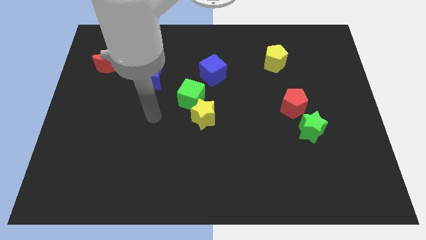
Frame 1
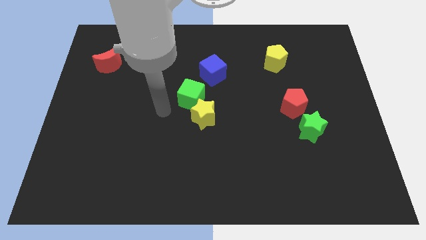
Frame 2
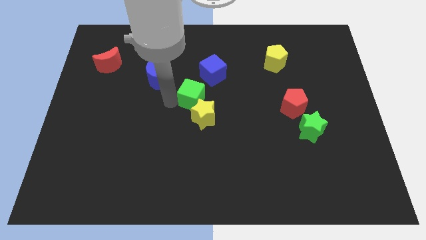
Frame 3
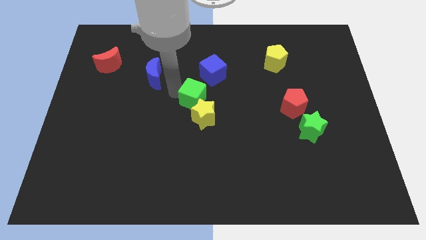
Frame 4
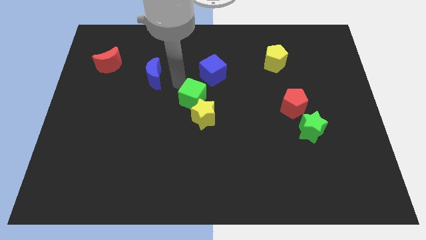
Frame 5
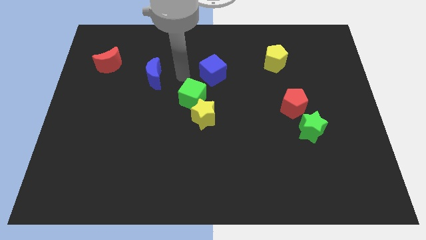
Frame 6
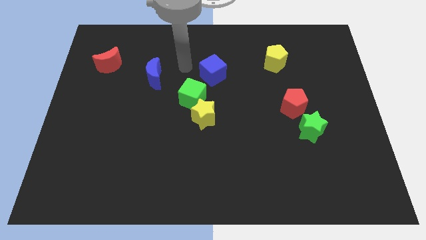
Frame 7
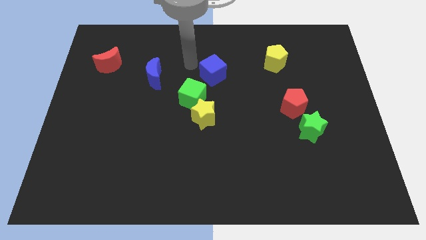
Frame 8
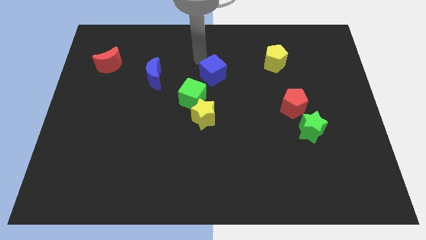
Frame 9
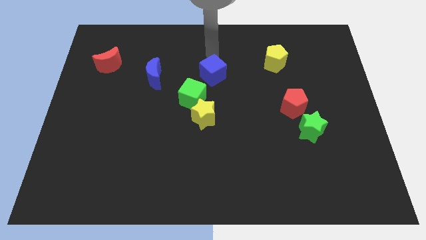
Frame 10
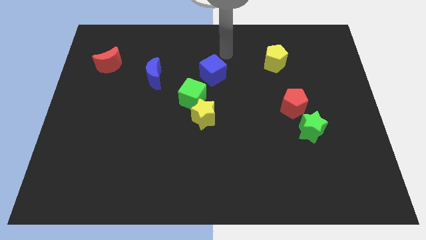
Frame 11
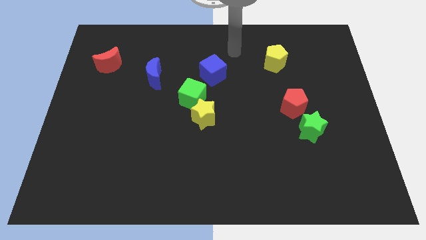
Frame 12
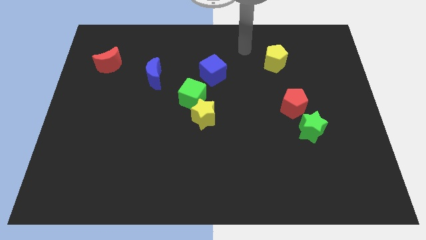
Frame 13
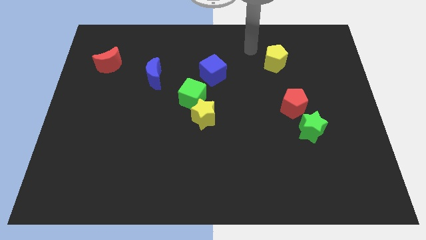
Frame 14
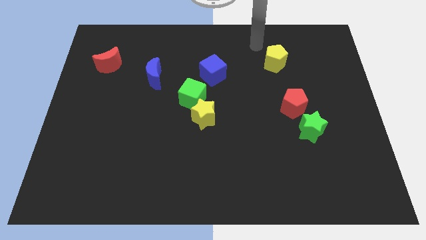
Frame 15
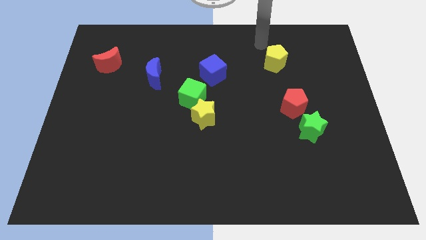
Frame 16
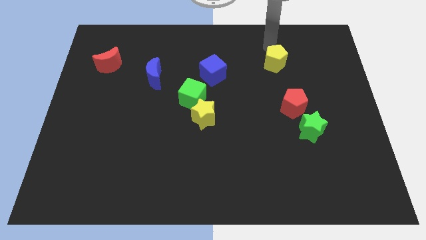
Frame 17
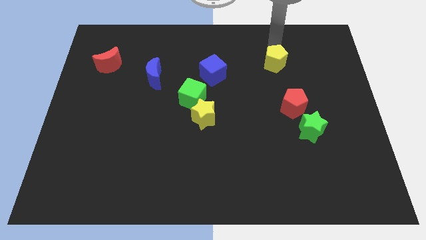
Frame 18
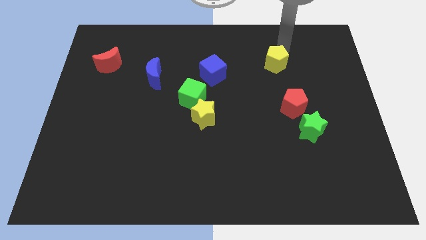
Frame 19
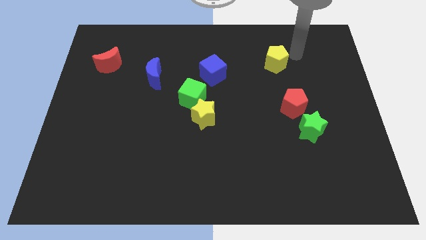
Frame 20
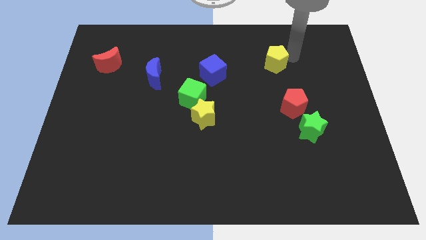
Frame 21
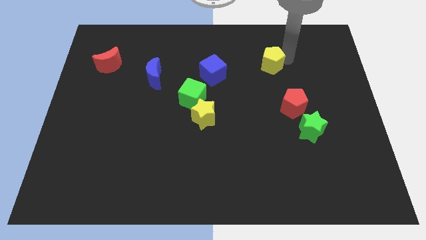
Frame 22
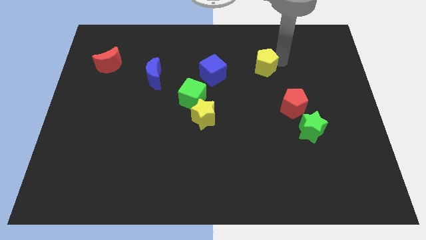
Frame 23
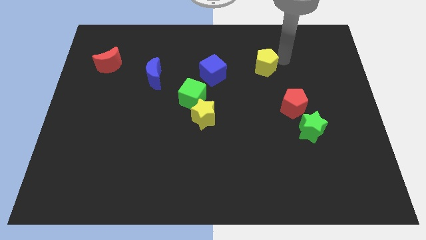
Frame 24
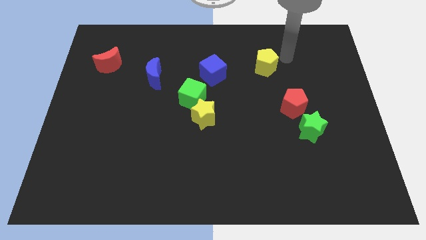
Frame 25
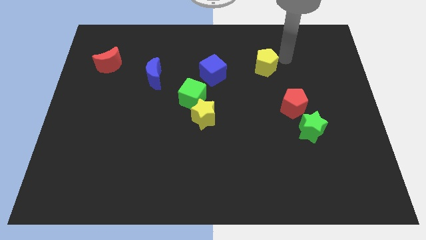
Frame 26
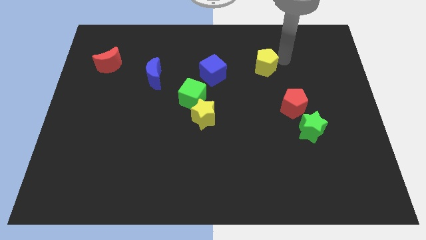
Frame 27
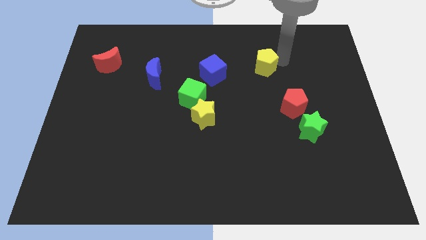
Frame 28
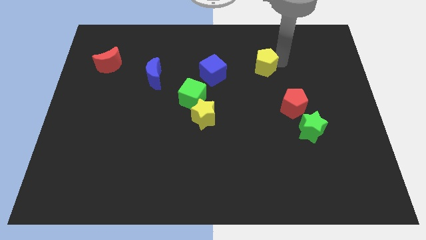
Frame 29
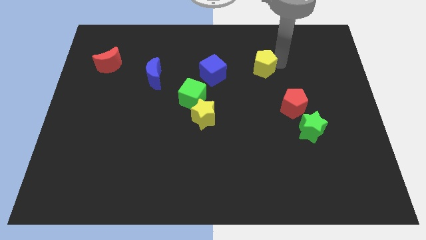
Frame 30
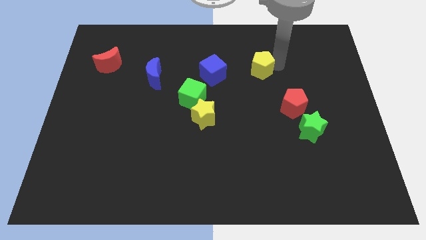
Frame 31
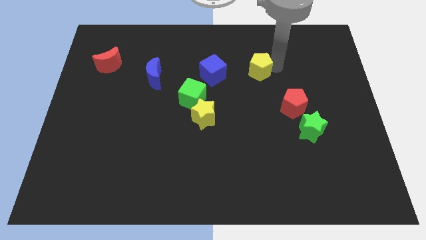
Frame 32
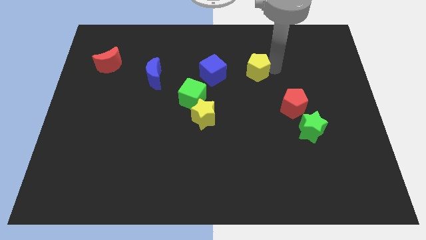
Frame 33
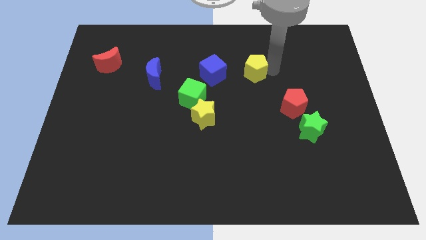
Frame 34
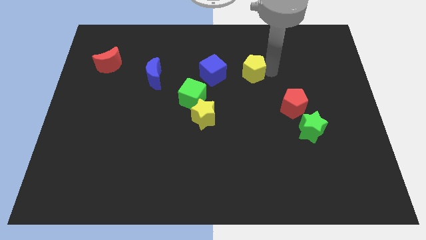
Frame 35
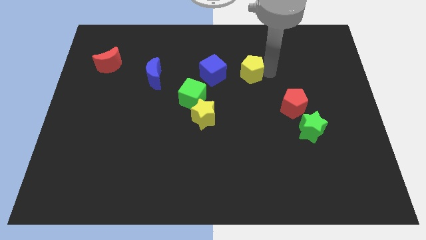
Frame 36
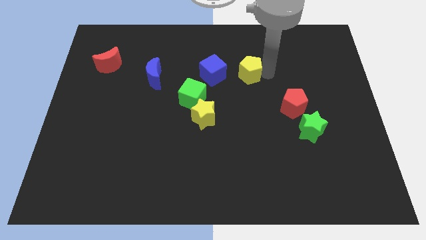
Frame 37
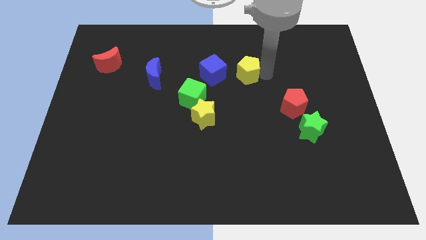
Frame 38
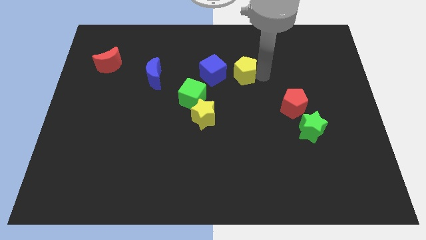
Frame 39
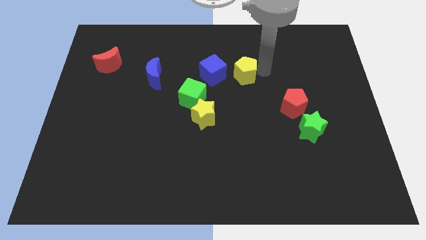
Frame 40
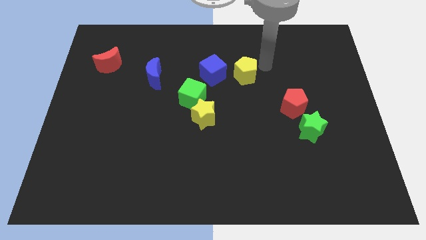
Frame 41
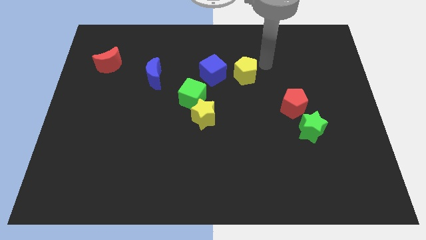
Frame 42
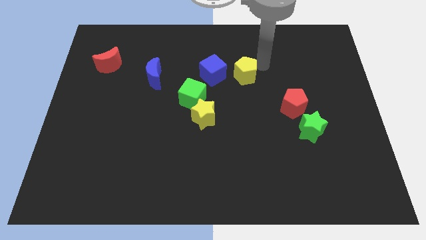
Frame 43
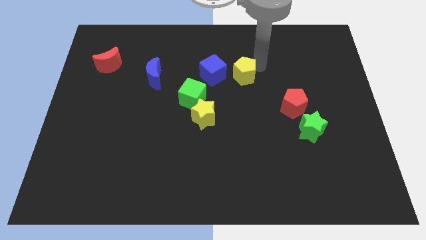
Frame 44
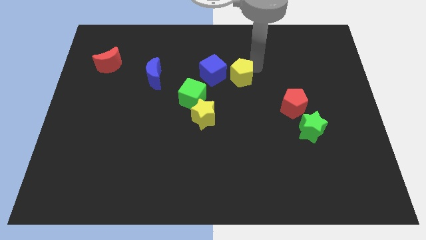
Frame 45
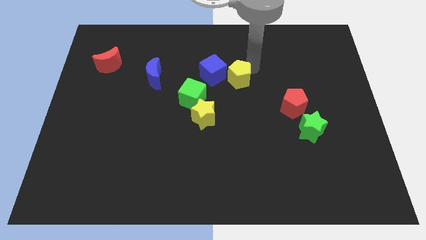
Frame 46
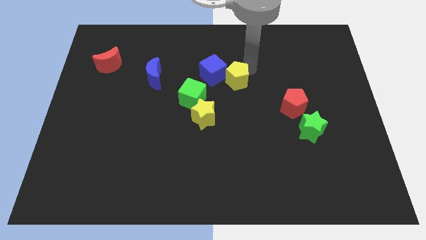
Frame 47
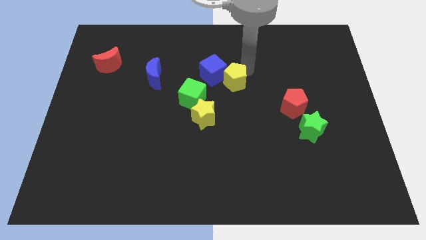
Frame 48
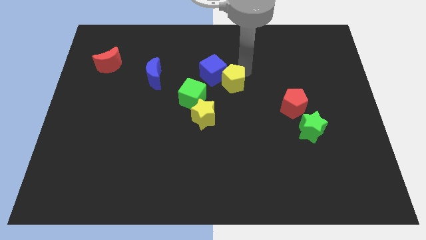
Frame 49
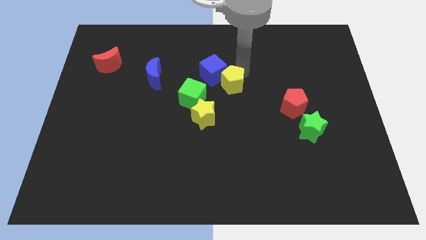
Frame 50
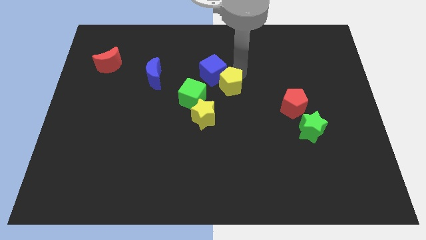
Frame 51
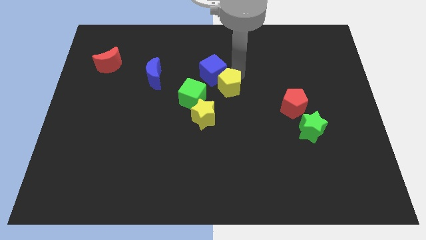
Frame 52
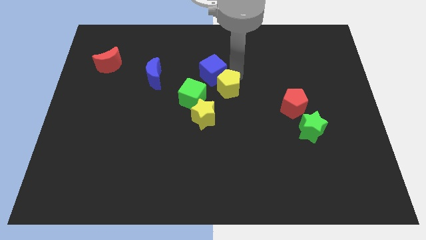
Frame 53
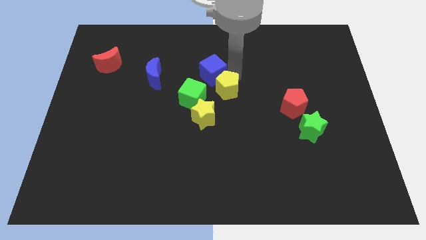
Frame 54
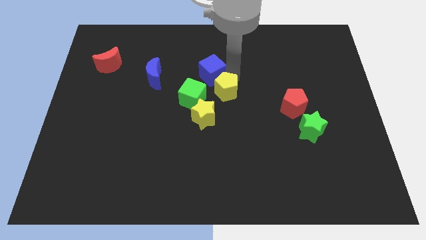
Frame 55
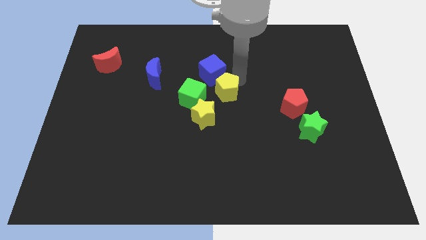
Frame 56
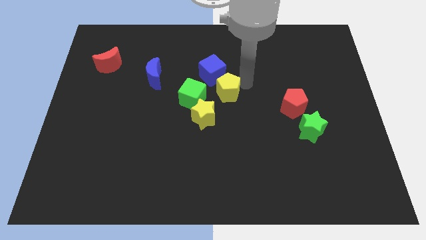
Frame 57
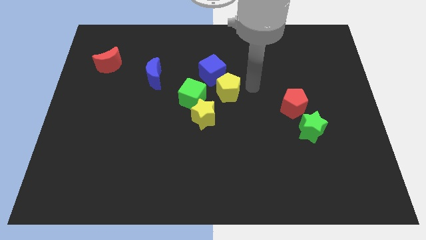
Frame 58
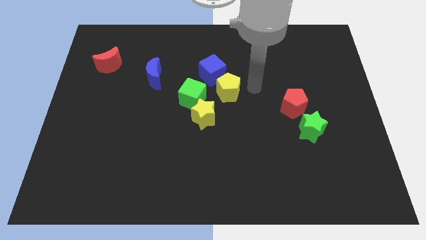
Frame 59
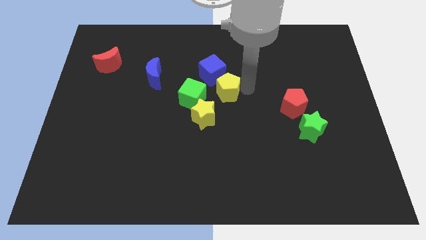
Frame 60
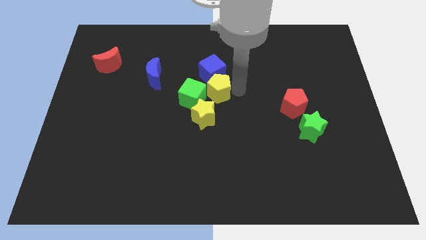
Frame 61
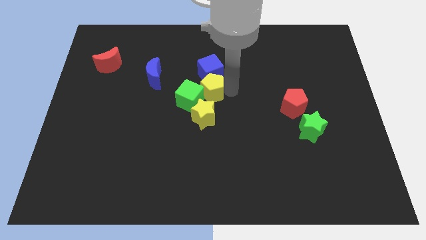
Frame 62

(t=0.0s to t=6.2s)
slide the yellow pentagon close to the green cube

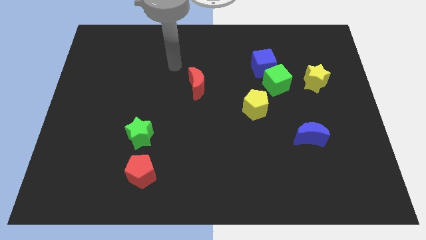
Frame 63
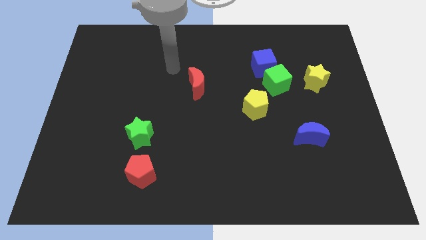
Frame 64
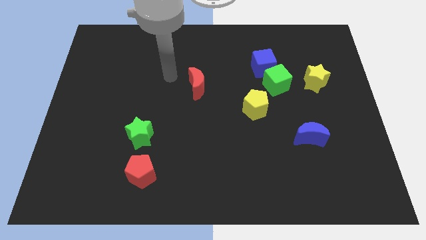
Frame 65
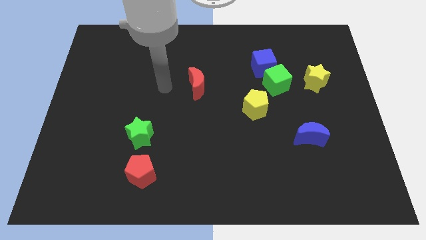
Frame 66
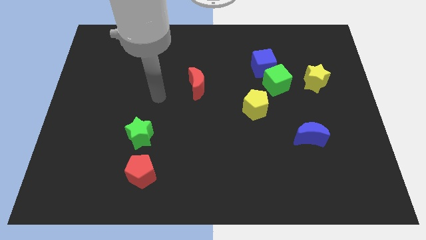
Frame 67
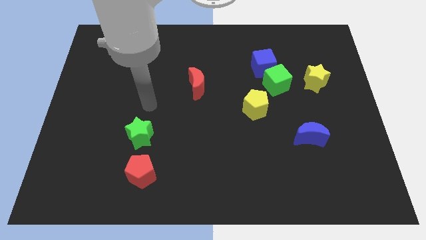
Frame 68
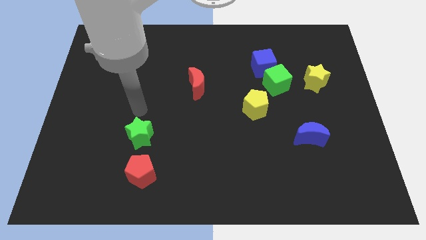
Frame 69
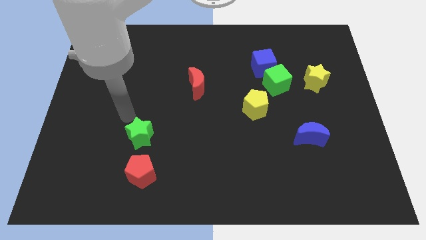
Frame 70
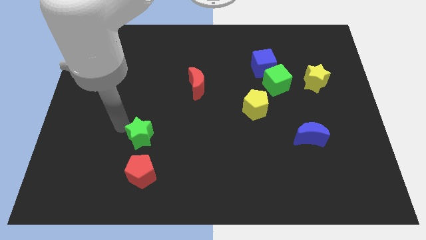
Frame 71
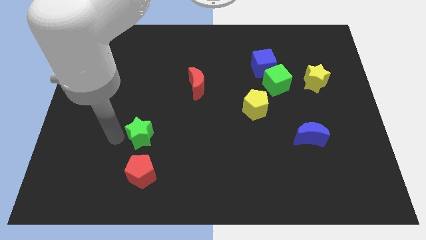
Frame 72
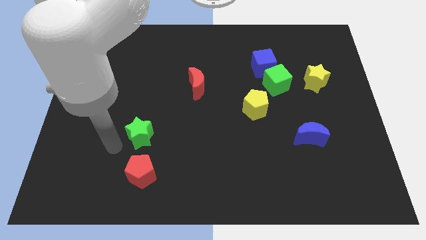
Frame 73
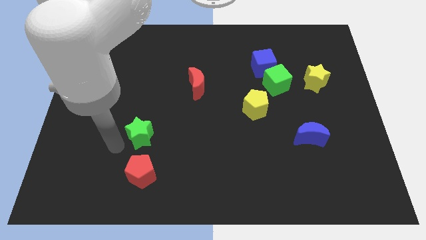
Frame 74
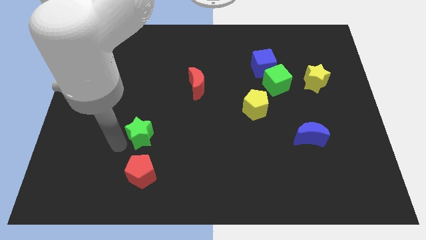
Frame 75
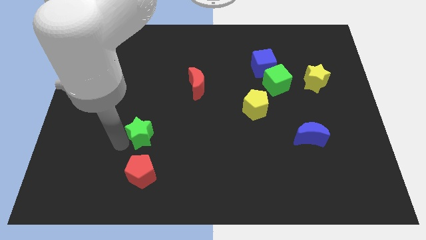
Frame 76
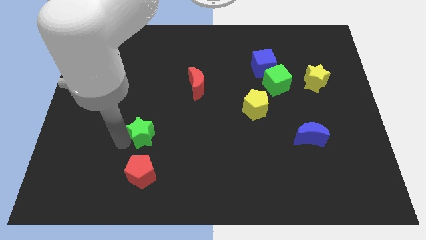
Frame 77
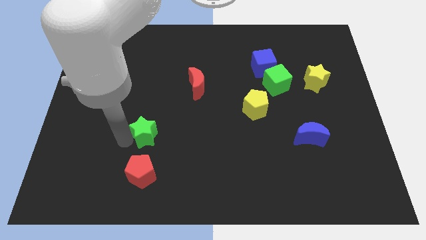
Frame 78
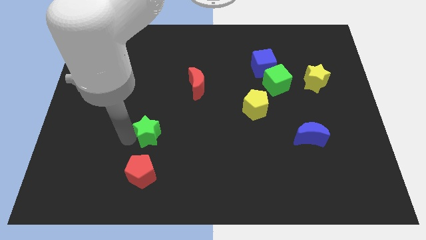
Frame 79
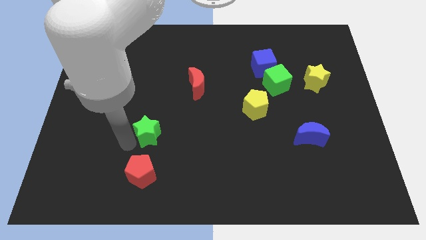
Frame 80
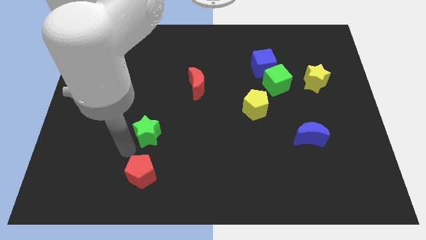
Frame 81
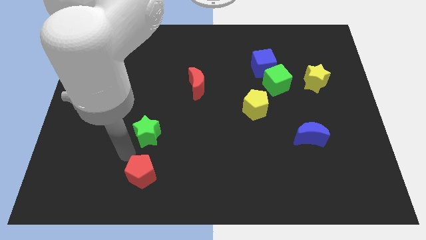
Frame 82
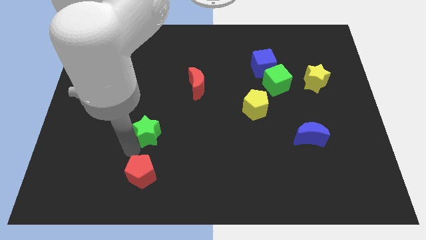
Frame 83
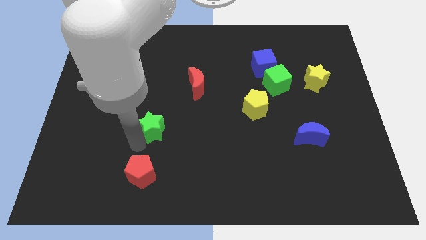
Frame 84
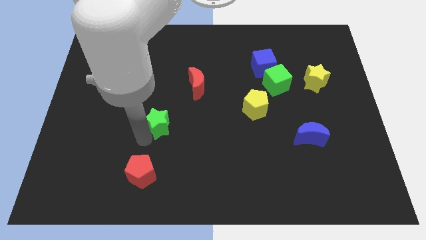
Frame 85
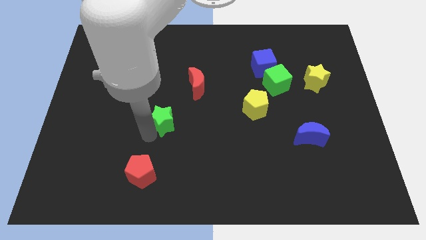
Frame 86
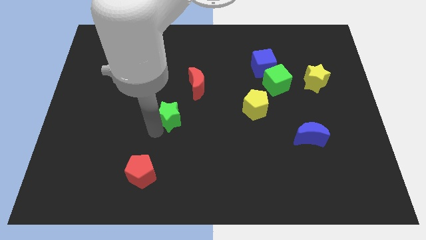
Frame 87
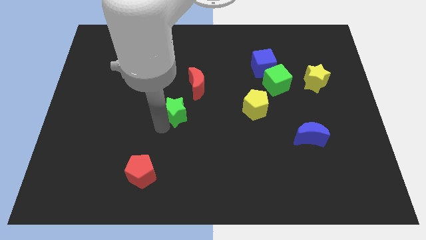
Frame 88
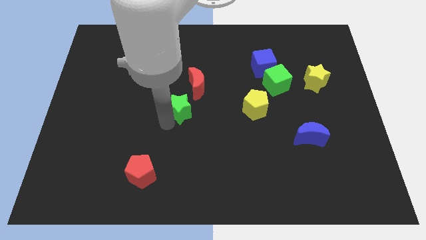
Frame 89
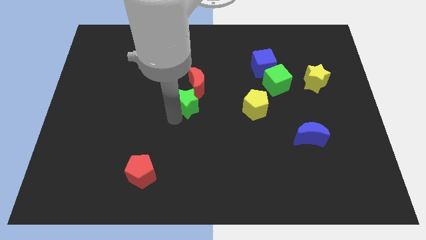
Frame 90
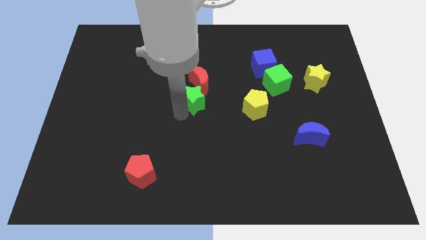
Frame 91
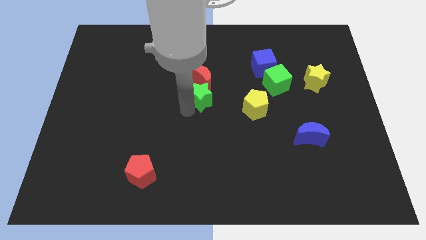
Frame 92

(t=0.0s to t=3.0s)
put the green star towards the red moon
